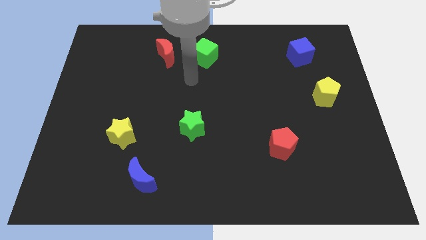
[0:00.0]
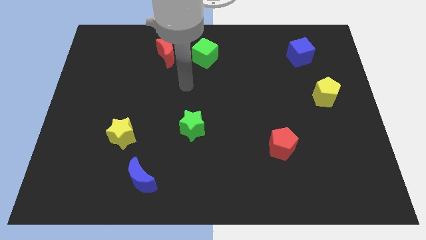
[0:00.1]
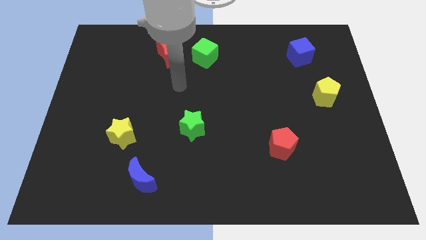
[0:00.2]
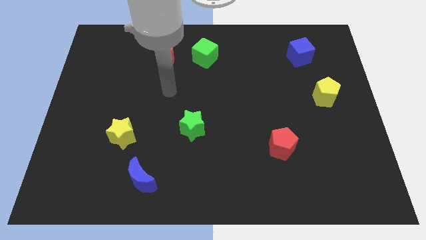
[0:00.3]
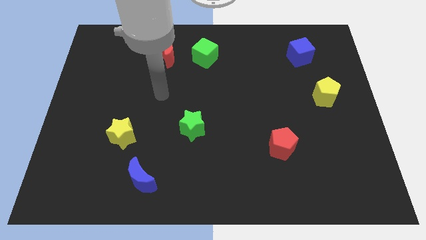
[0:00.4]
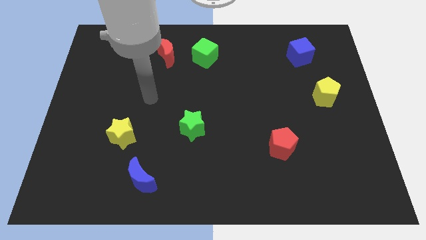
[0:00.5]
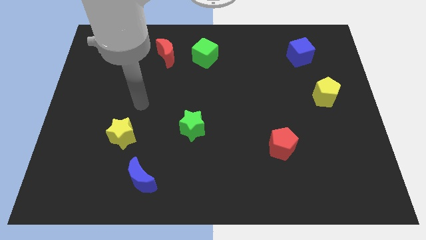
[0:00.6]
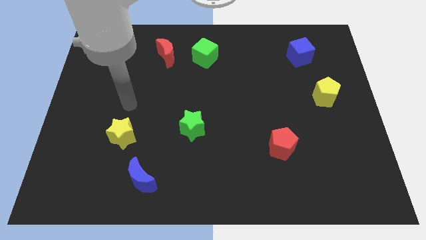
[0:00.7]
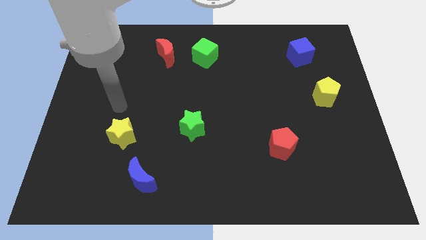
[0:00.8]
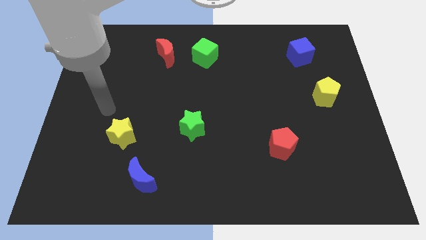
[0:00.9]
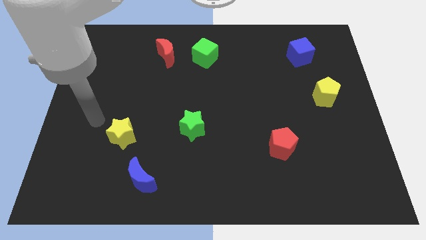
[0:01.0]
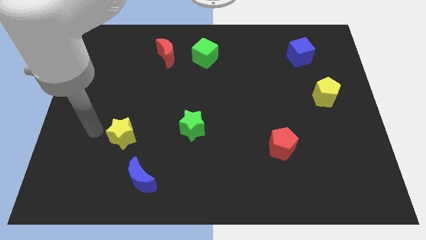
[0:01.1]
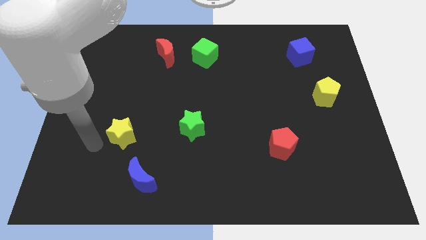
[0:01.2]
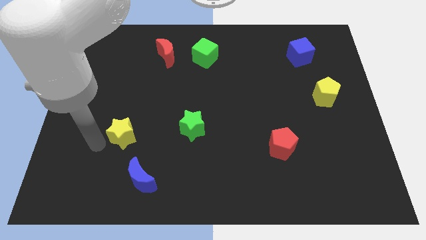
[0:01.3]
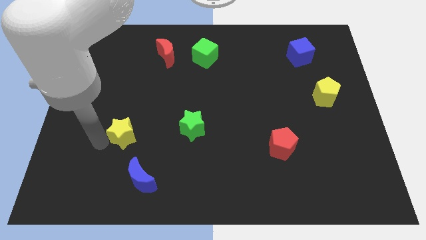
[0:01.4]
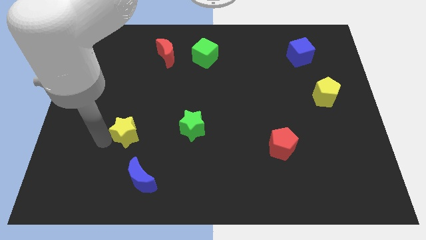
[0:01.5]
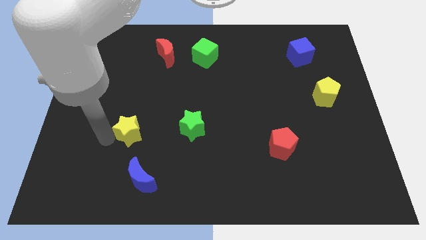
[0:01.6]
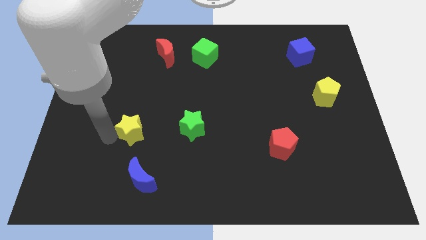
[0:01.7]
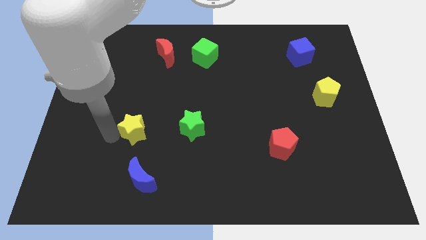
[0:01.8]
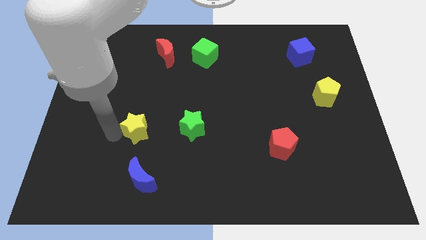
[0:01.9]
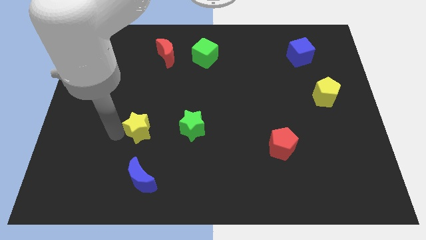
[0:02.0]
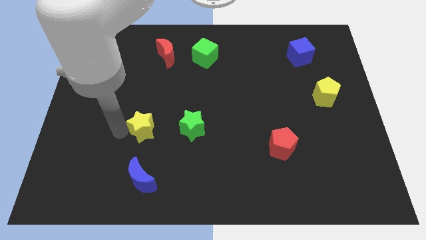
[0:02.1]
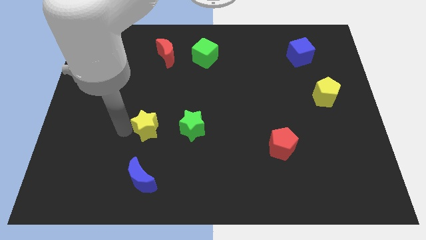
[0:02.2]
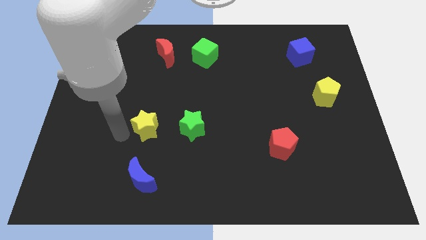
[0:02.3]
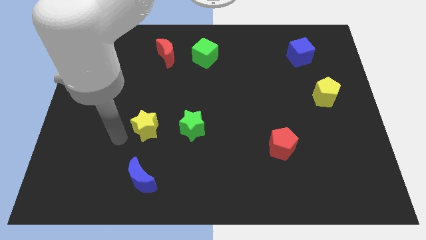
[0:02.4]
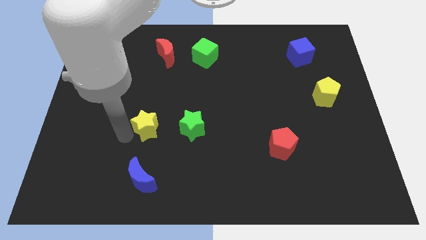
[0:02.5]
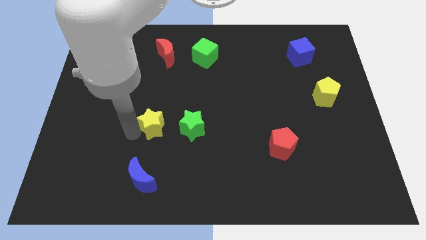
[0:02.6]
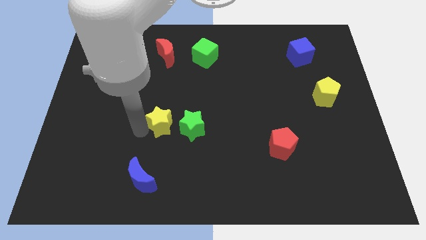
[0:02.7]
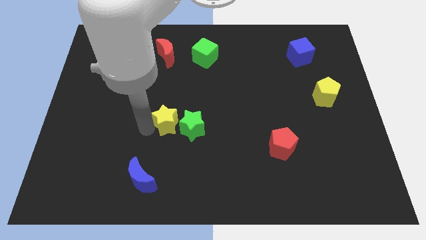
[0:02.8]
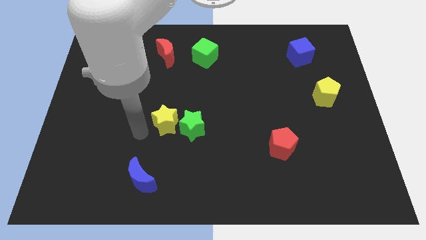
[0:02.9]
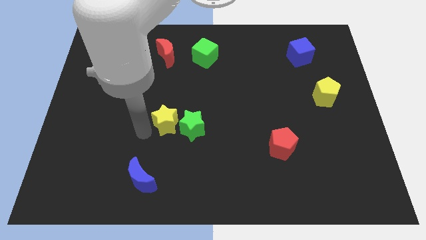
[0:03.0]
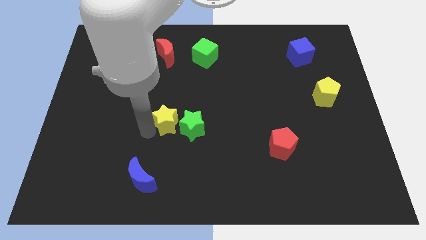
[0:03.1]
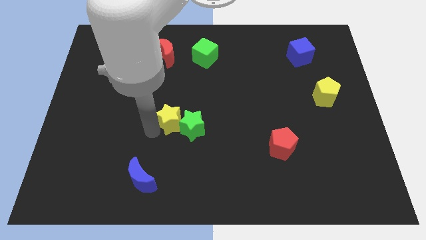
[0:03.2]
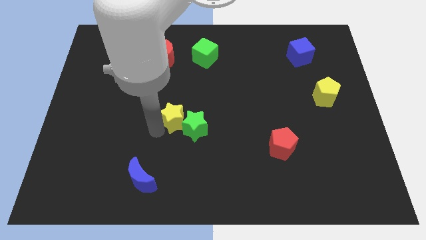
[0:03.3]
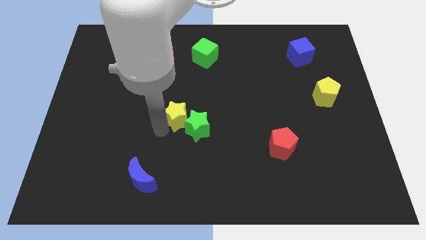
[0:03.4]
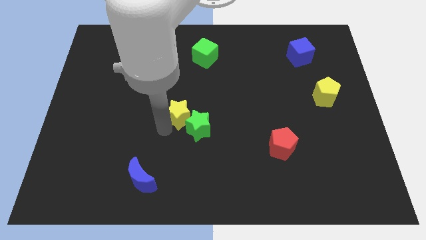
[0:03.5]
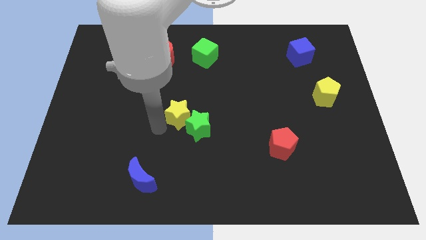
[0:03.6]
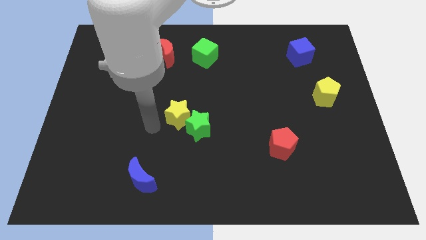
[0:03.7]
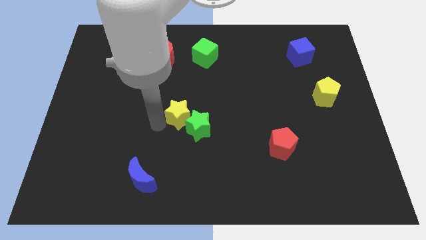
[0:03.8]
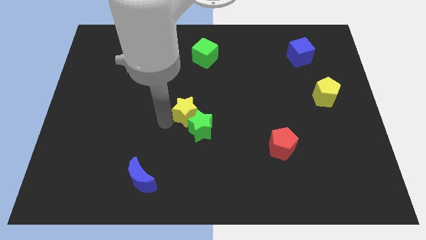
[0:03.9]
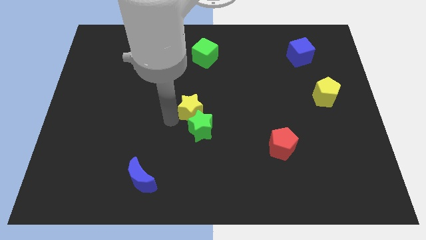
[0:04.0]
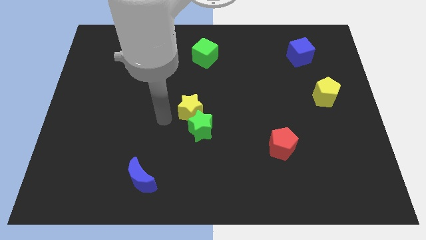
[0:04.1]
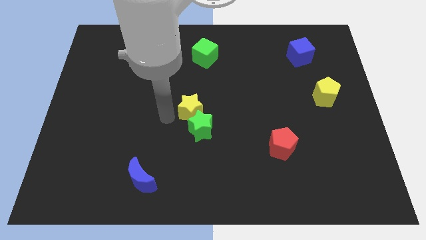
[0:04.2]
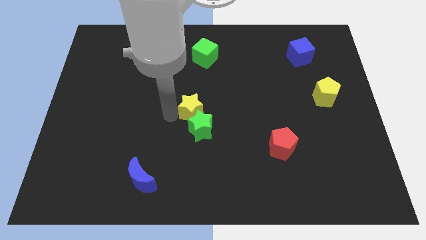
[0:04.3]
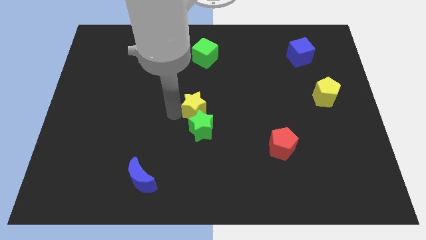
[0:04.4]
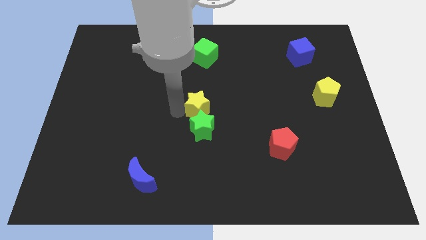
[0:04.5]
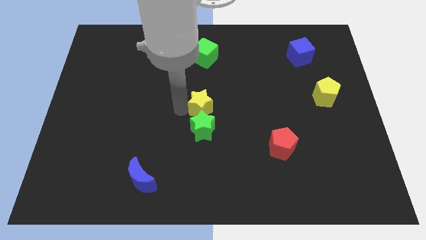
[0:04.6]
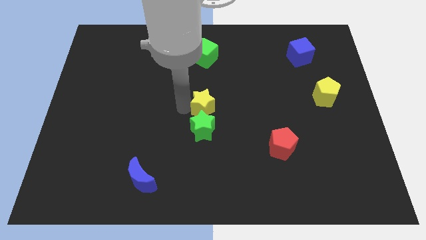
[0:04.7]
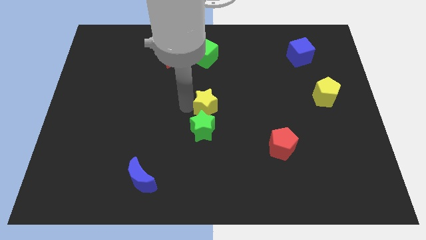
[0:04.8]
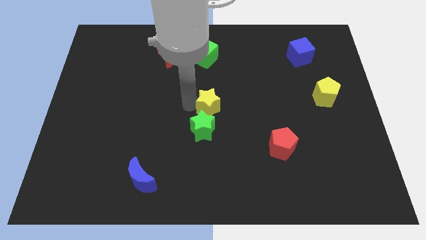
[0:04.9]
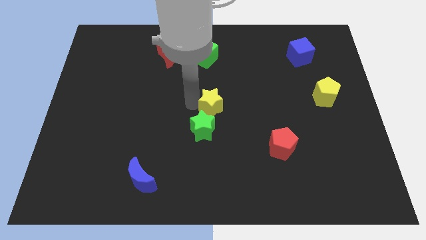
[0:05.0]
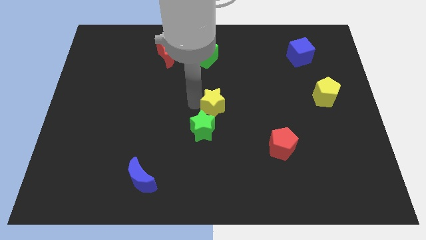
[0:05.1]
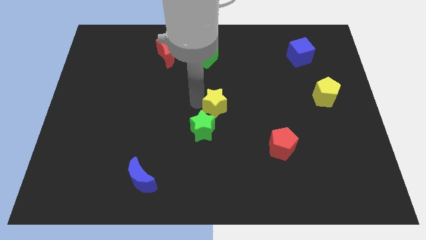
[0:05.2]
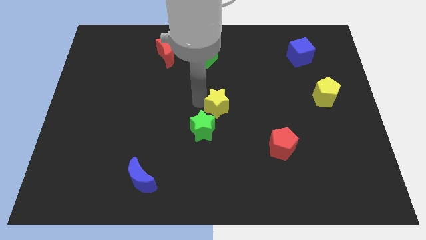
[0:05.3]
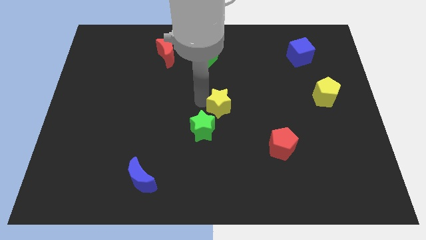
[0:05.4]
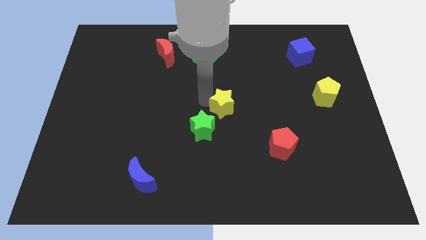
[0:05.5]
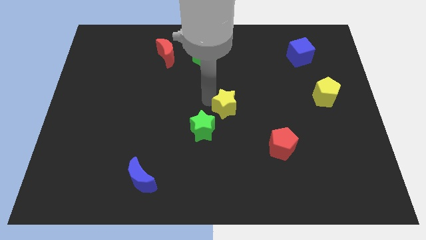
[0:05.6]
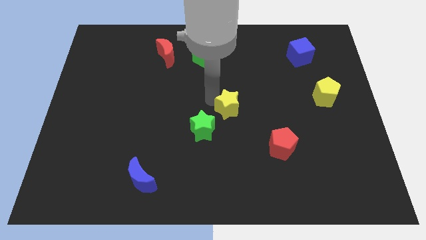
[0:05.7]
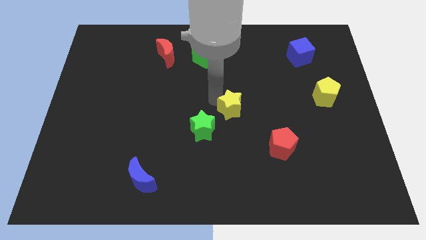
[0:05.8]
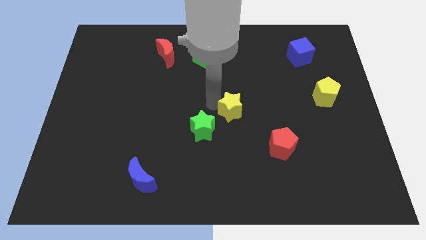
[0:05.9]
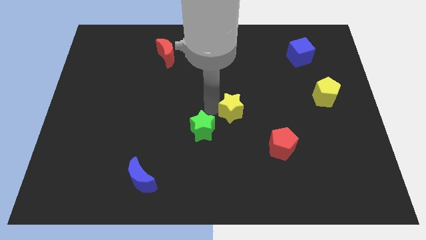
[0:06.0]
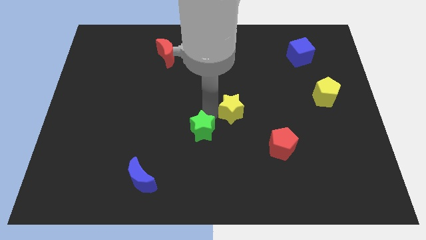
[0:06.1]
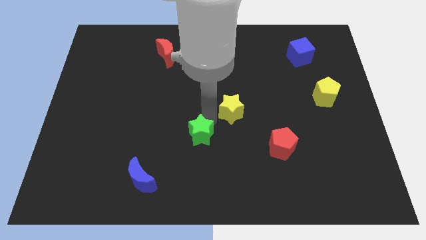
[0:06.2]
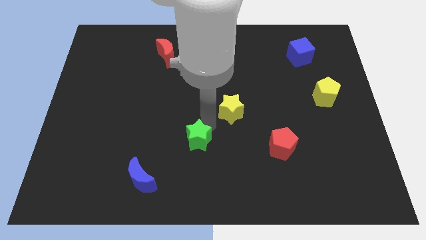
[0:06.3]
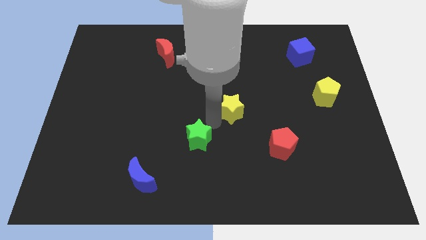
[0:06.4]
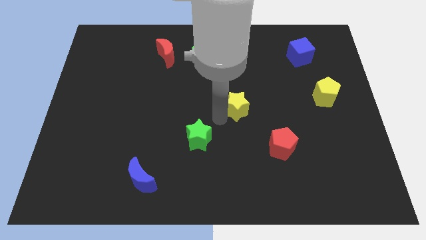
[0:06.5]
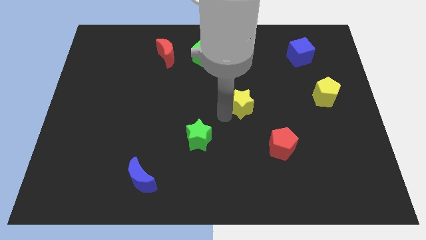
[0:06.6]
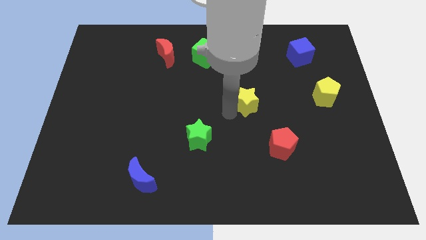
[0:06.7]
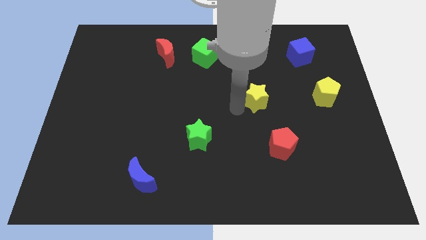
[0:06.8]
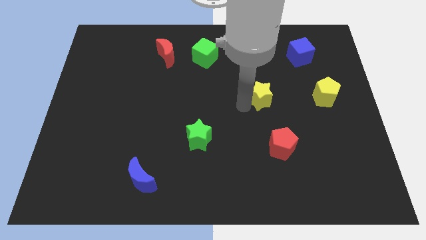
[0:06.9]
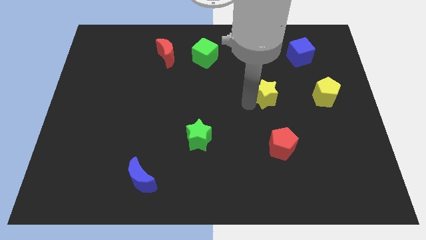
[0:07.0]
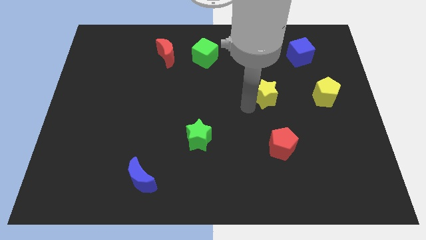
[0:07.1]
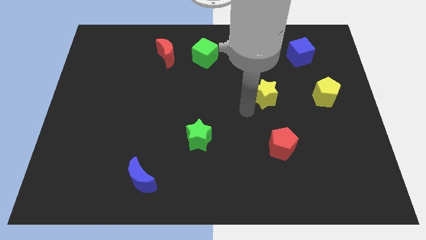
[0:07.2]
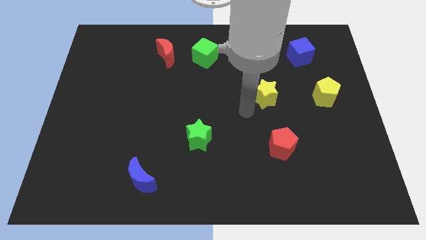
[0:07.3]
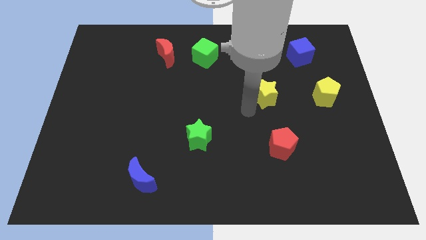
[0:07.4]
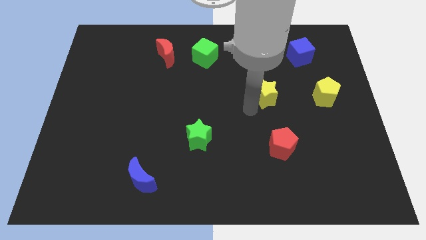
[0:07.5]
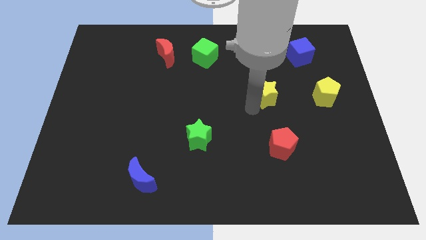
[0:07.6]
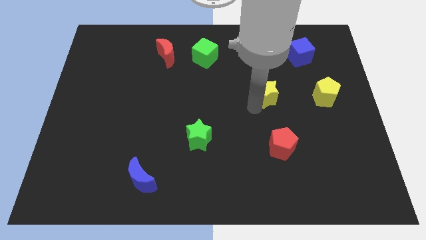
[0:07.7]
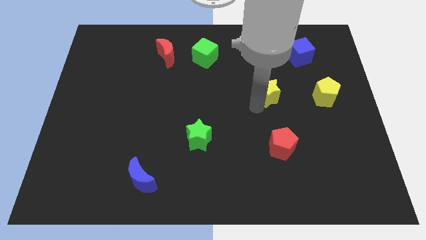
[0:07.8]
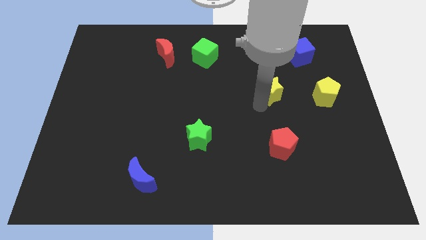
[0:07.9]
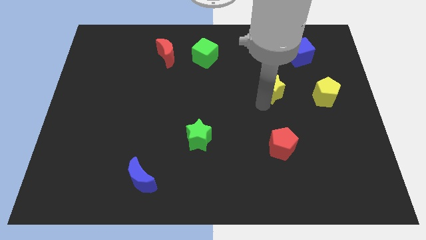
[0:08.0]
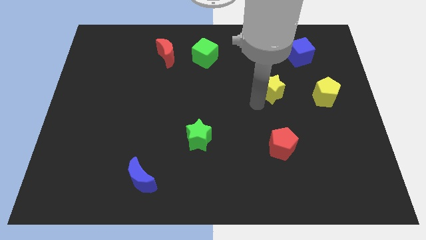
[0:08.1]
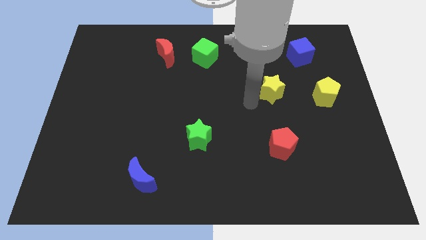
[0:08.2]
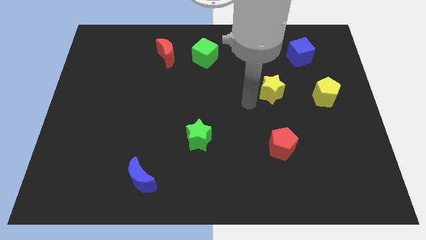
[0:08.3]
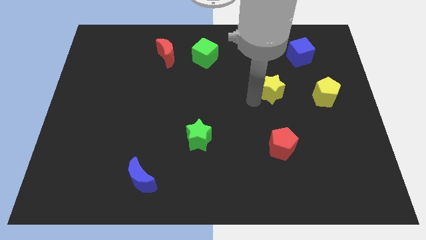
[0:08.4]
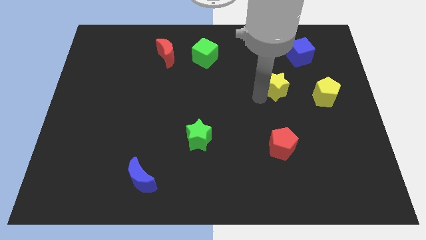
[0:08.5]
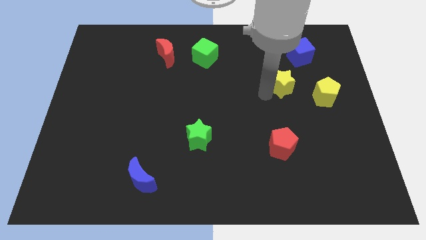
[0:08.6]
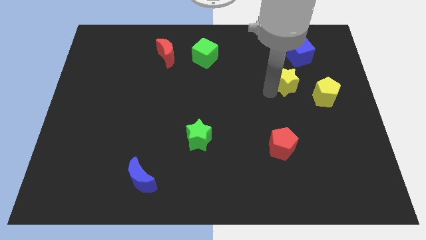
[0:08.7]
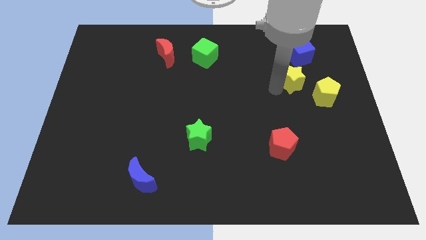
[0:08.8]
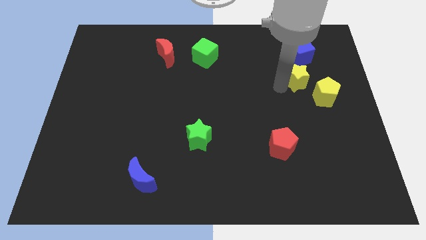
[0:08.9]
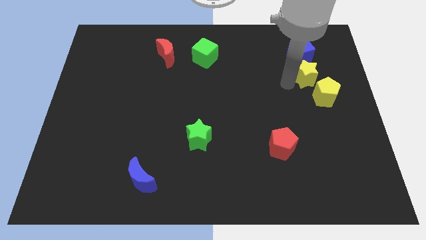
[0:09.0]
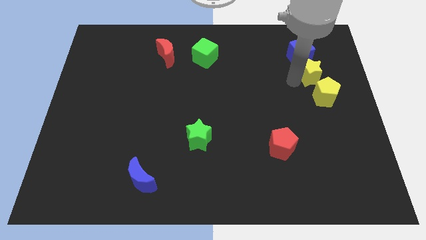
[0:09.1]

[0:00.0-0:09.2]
push the yellow star diagonally down and to the right of the blue cube
